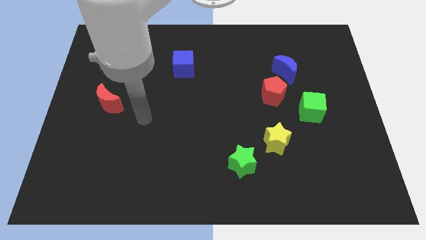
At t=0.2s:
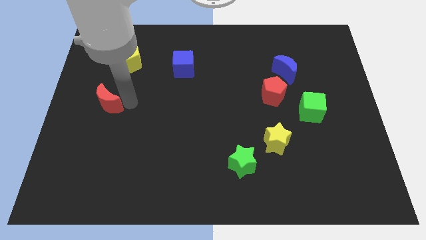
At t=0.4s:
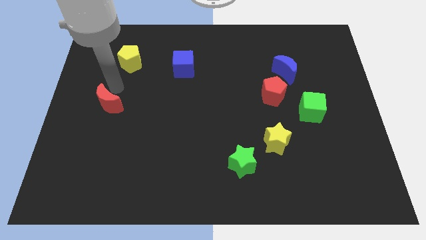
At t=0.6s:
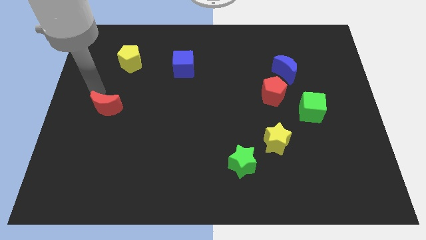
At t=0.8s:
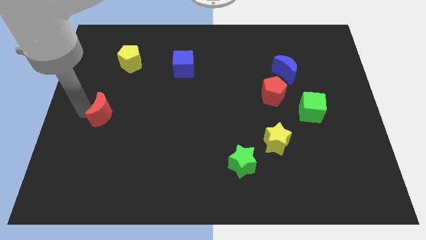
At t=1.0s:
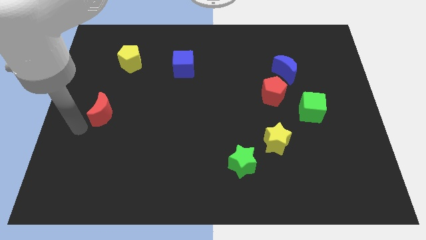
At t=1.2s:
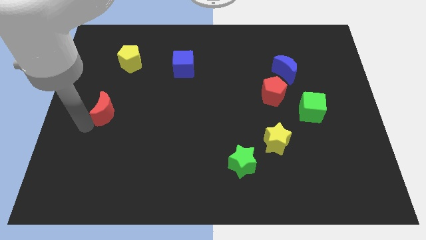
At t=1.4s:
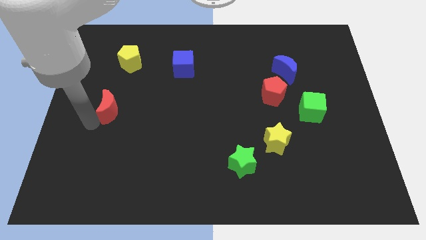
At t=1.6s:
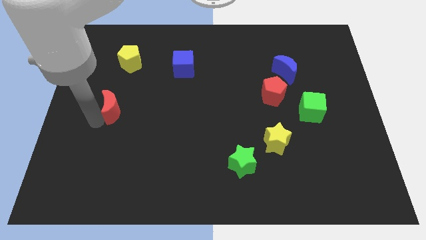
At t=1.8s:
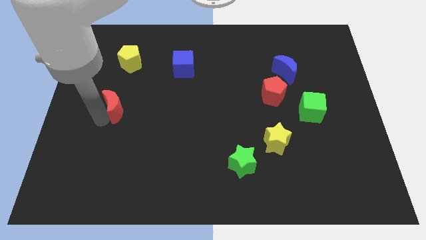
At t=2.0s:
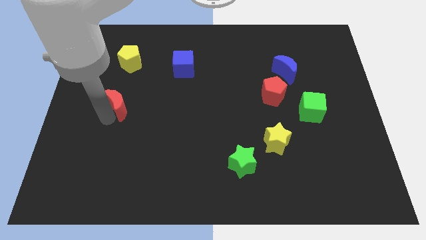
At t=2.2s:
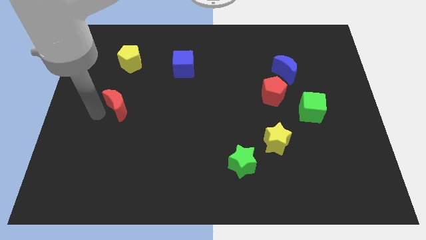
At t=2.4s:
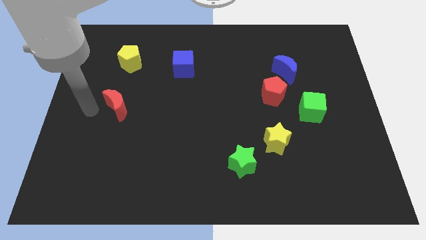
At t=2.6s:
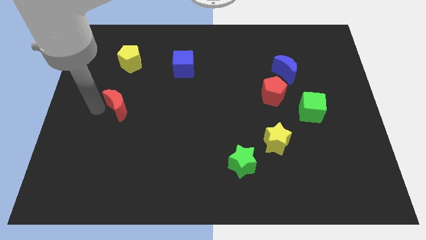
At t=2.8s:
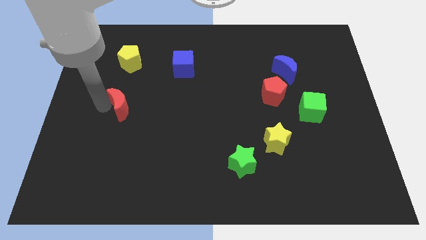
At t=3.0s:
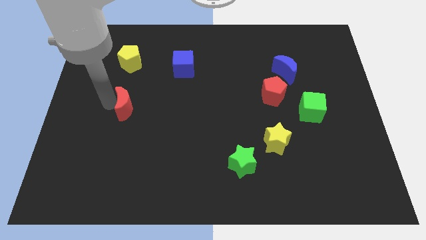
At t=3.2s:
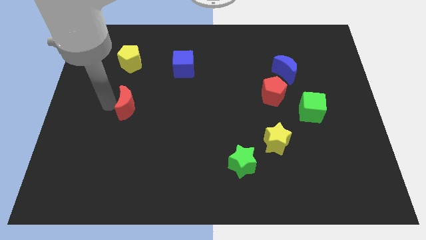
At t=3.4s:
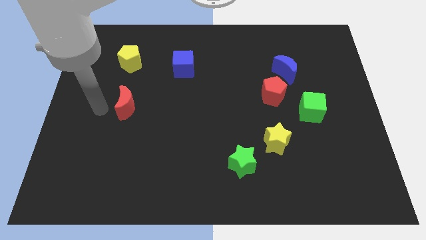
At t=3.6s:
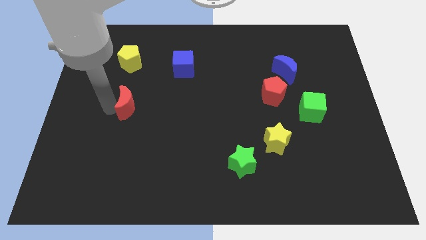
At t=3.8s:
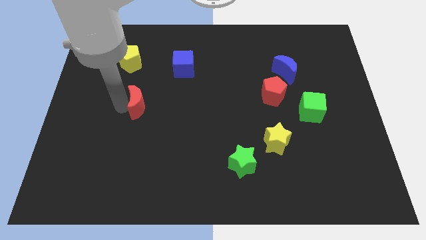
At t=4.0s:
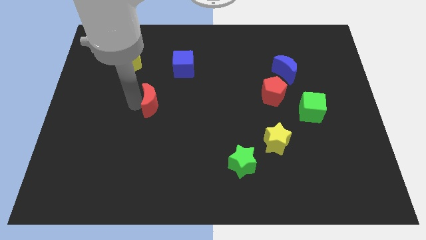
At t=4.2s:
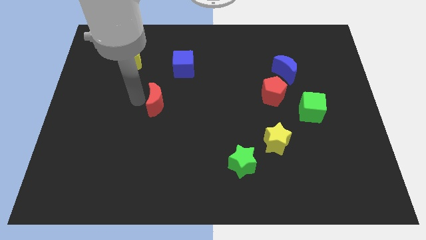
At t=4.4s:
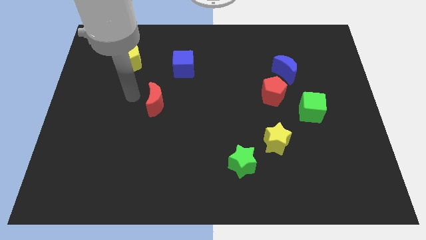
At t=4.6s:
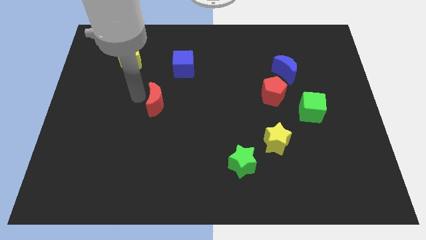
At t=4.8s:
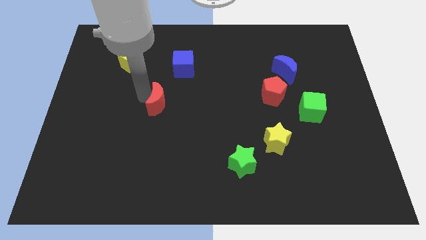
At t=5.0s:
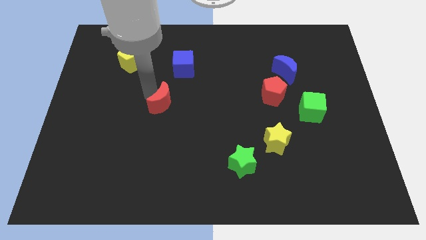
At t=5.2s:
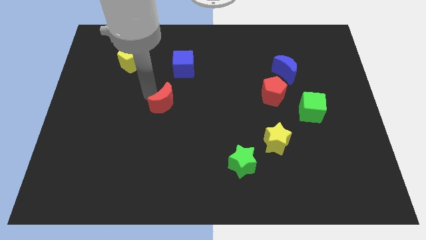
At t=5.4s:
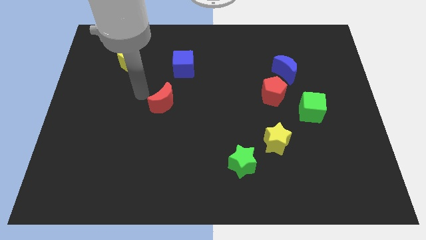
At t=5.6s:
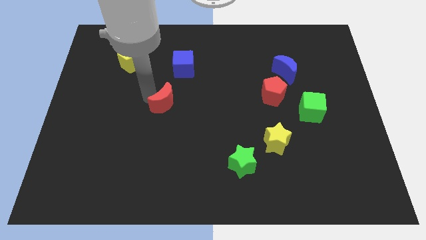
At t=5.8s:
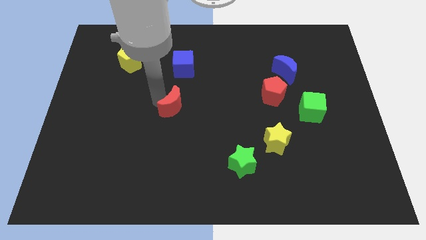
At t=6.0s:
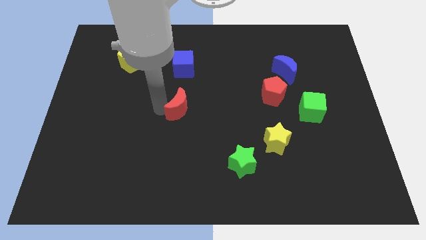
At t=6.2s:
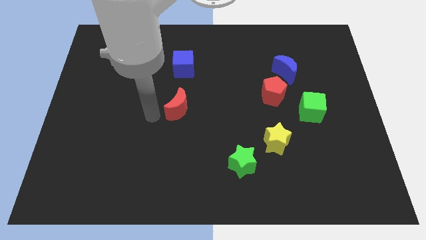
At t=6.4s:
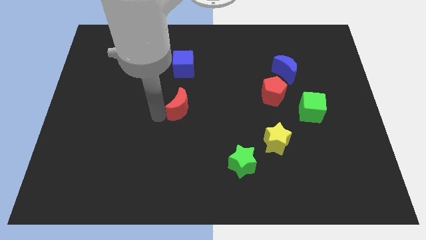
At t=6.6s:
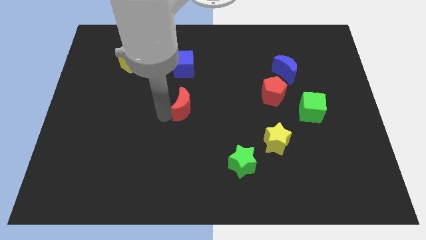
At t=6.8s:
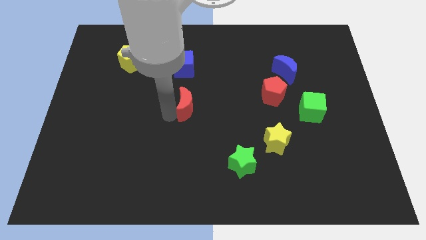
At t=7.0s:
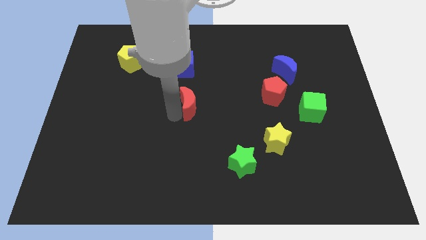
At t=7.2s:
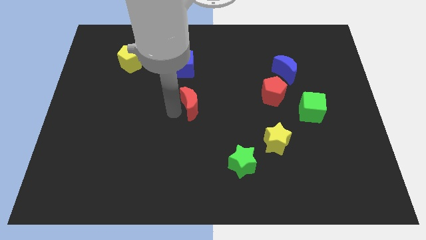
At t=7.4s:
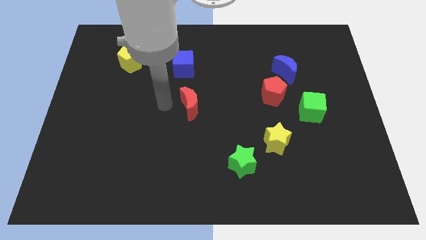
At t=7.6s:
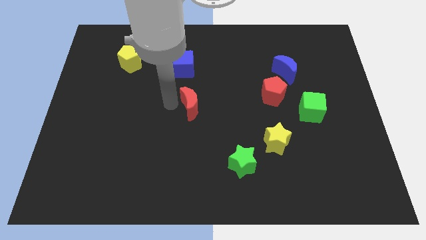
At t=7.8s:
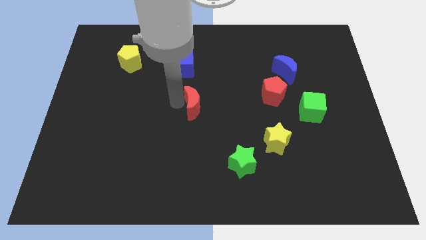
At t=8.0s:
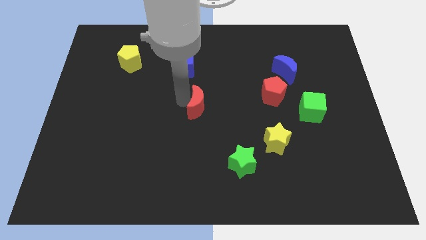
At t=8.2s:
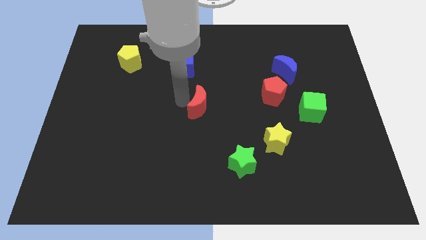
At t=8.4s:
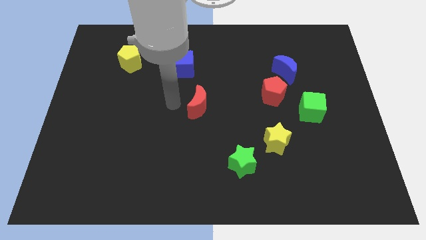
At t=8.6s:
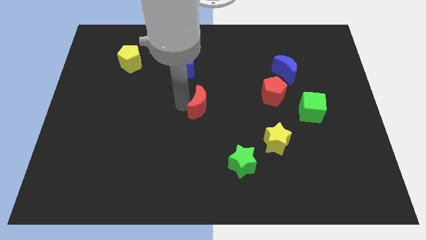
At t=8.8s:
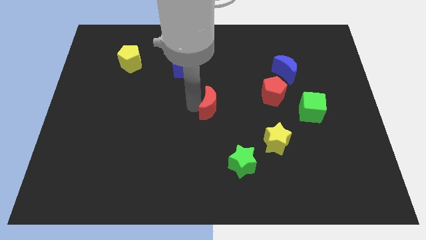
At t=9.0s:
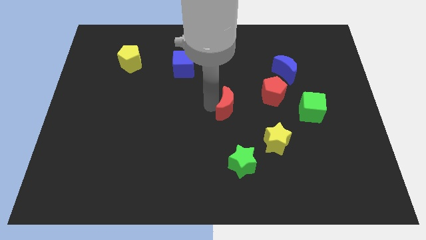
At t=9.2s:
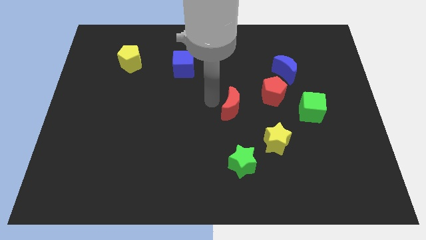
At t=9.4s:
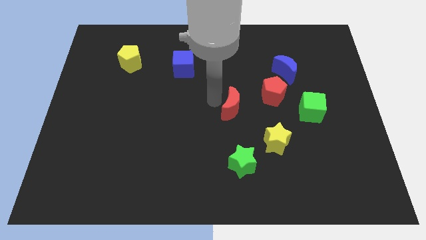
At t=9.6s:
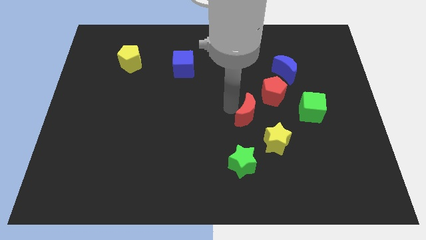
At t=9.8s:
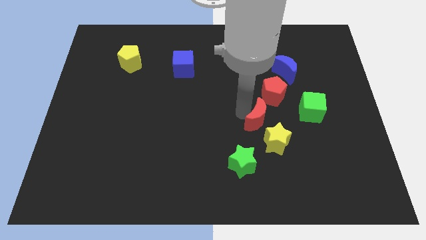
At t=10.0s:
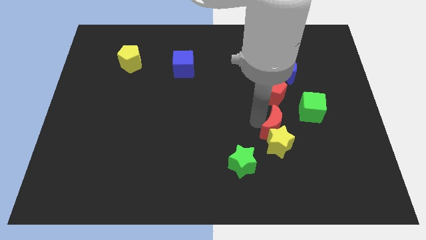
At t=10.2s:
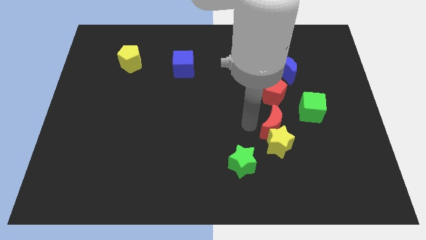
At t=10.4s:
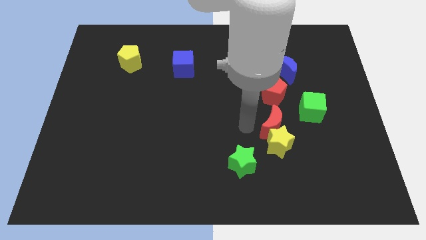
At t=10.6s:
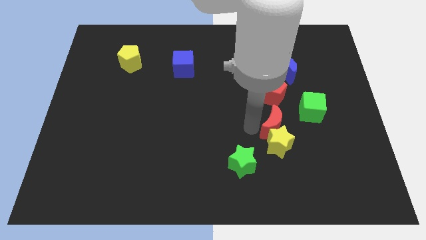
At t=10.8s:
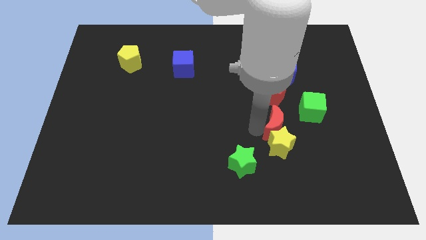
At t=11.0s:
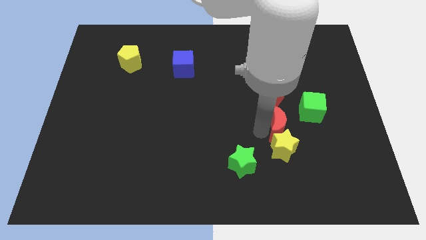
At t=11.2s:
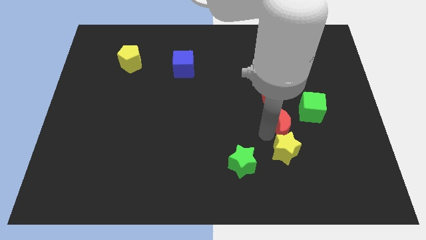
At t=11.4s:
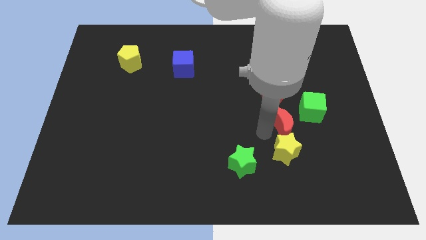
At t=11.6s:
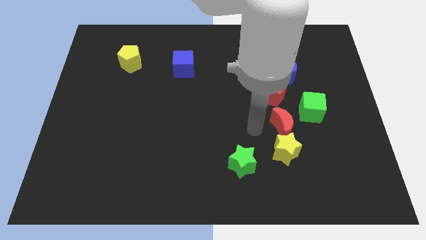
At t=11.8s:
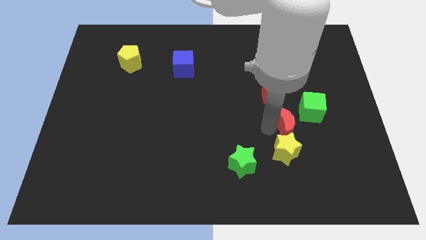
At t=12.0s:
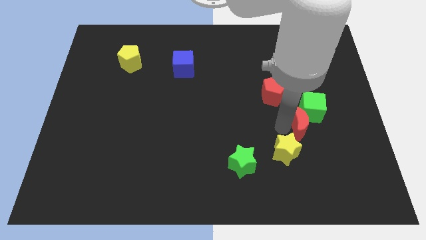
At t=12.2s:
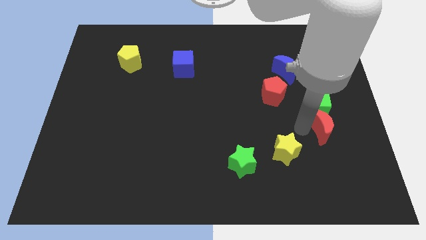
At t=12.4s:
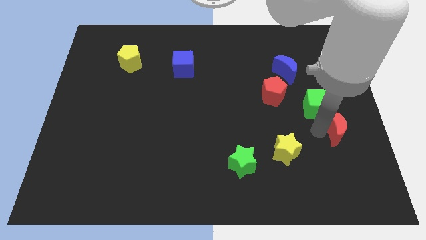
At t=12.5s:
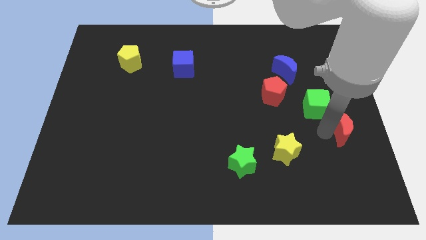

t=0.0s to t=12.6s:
slide the red moon to the right side of the board
